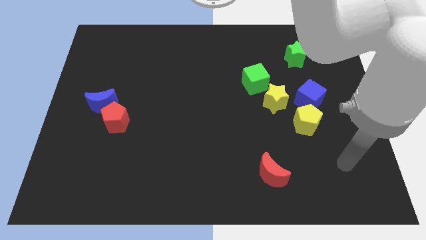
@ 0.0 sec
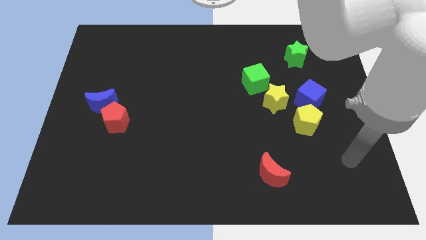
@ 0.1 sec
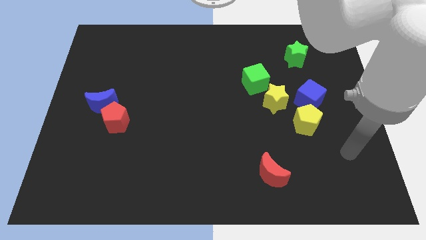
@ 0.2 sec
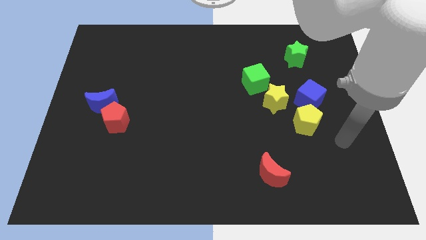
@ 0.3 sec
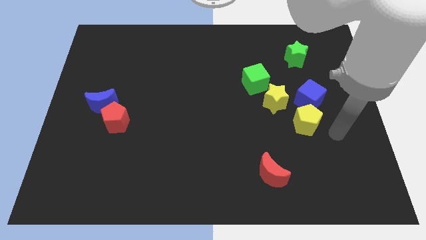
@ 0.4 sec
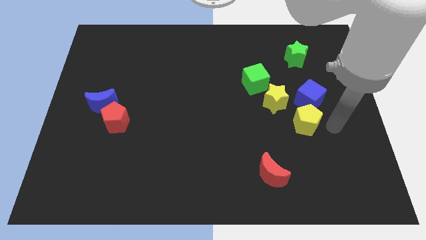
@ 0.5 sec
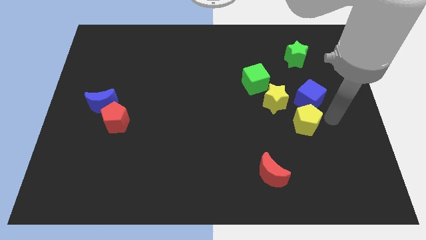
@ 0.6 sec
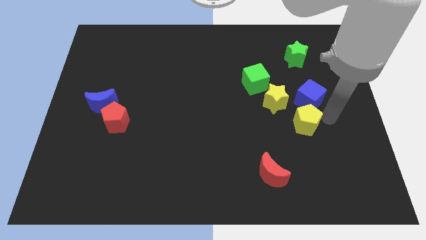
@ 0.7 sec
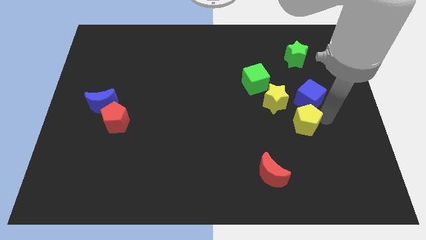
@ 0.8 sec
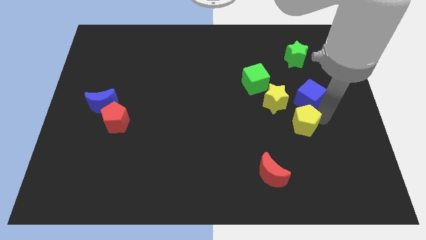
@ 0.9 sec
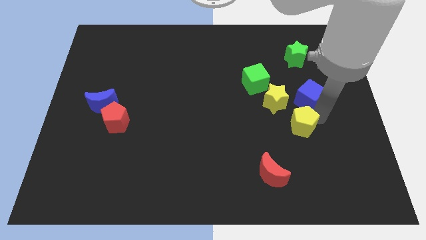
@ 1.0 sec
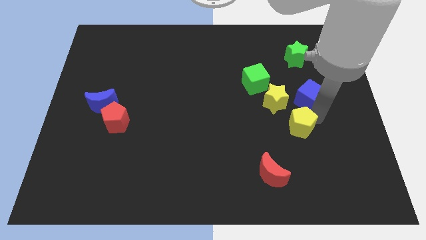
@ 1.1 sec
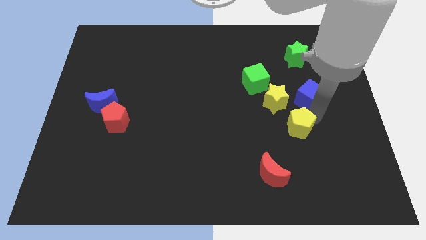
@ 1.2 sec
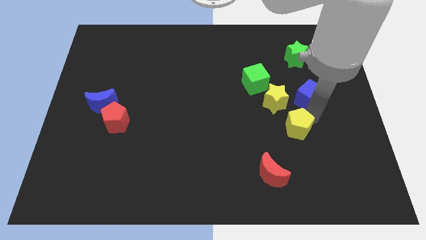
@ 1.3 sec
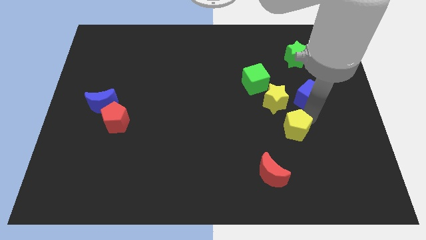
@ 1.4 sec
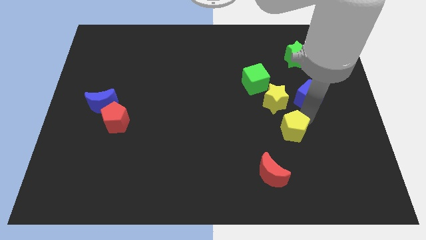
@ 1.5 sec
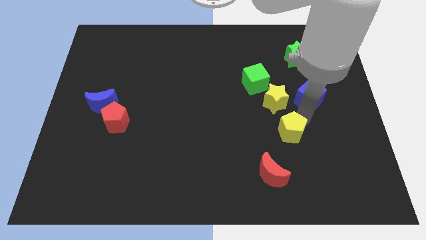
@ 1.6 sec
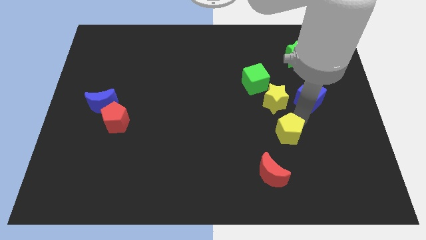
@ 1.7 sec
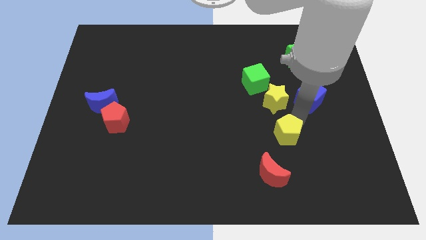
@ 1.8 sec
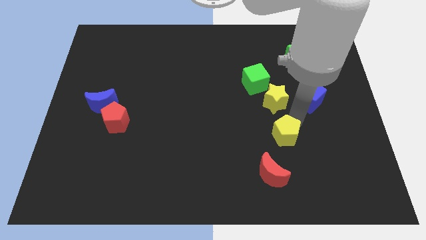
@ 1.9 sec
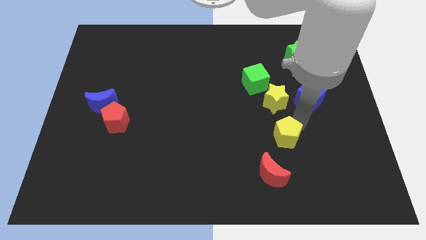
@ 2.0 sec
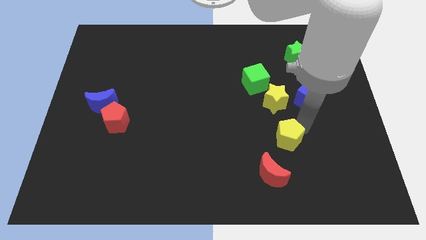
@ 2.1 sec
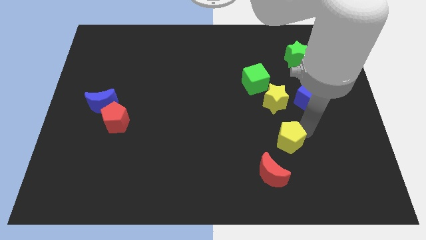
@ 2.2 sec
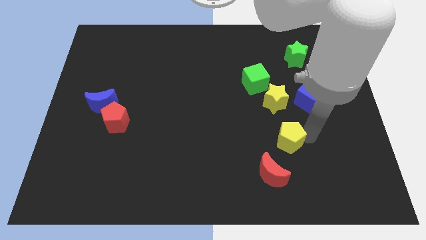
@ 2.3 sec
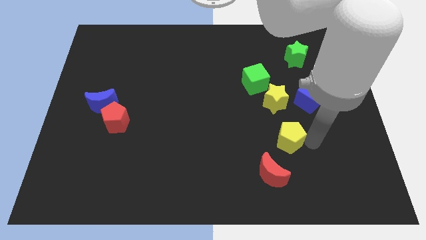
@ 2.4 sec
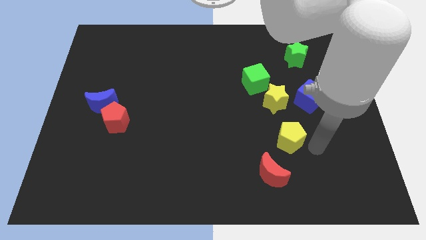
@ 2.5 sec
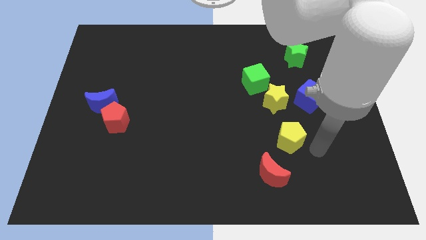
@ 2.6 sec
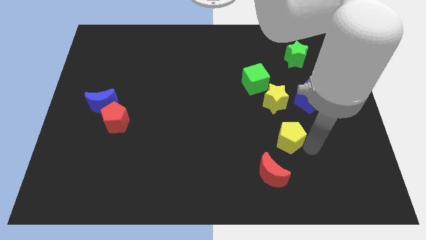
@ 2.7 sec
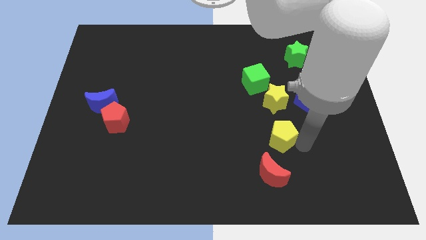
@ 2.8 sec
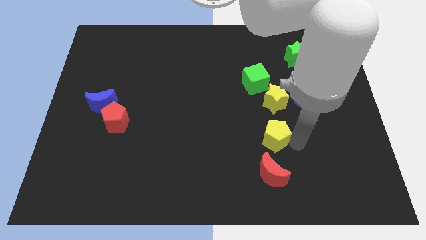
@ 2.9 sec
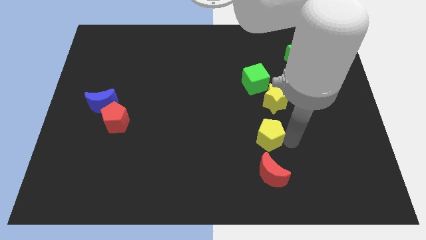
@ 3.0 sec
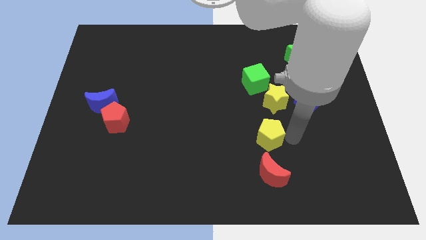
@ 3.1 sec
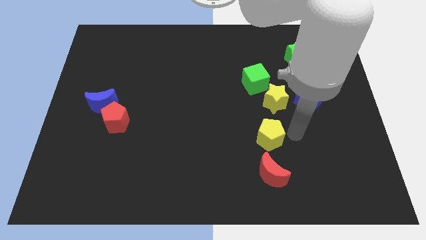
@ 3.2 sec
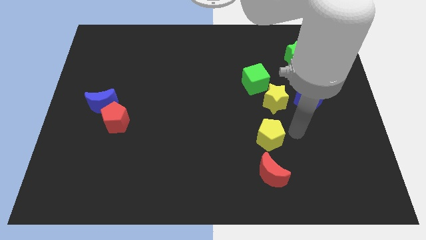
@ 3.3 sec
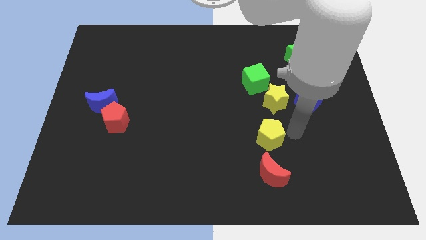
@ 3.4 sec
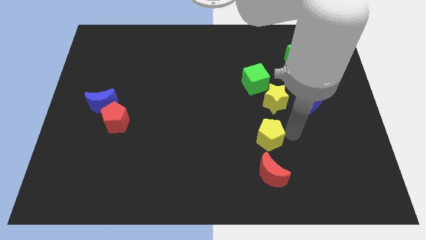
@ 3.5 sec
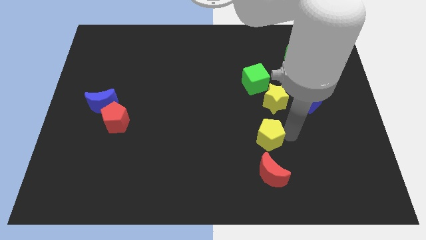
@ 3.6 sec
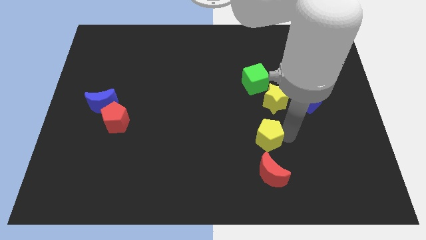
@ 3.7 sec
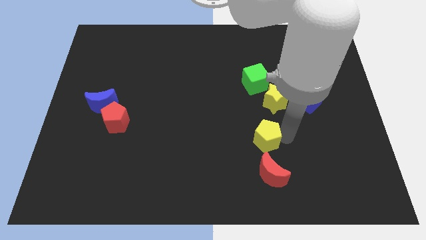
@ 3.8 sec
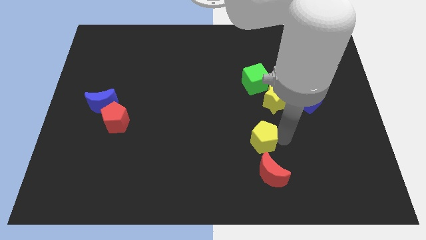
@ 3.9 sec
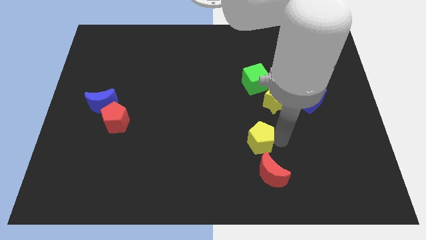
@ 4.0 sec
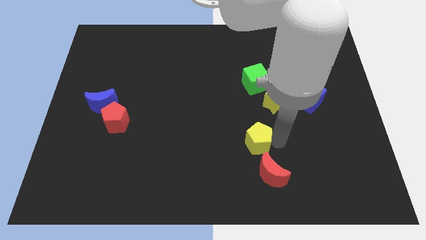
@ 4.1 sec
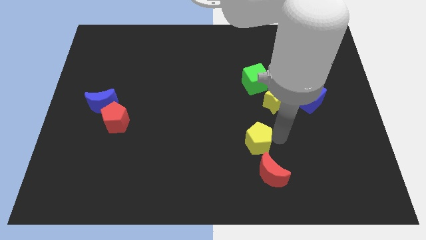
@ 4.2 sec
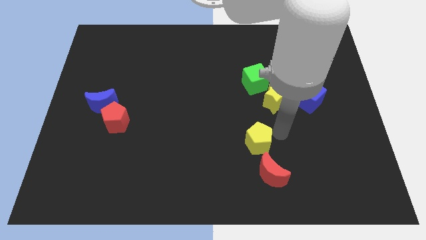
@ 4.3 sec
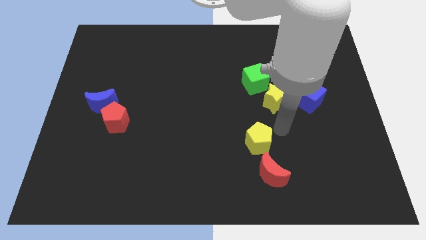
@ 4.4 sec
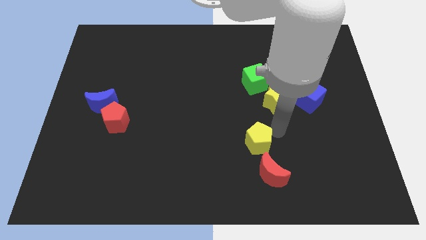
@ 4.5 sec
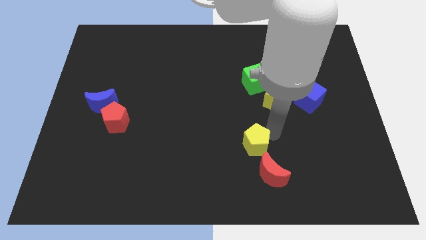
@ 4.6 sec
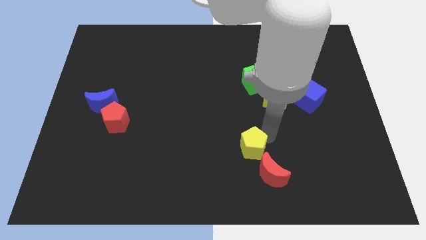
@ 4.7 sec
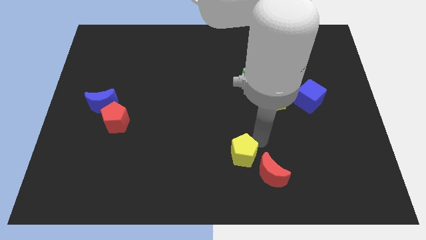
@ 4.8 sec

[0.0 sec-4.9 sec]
move the yellow pentagon to the left of the red moon

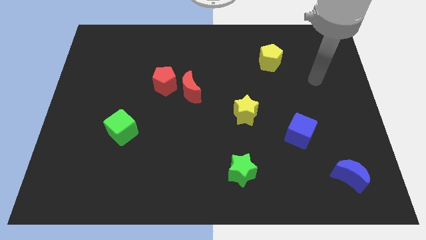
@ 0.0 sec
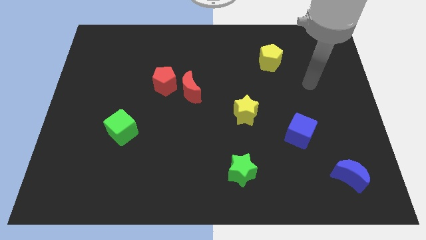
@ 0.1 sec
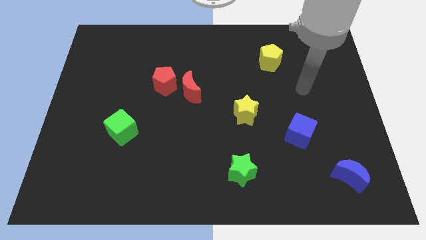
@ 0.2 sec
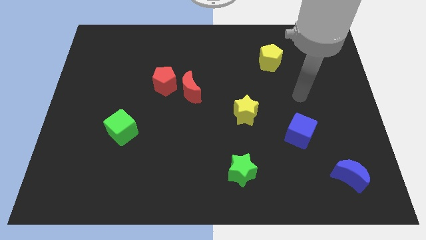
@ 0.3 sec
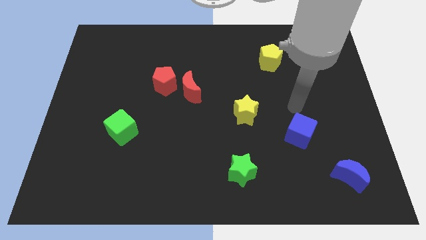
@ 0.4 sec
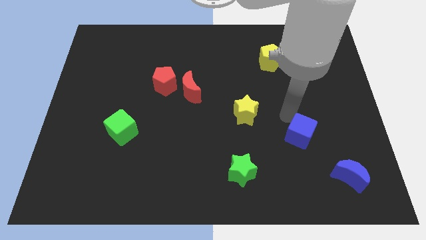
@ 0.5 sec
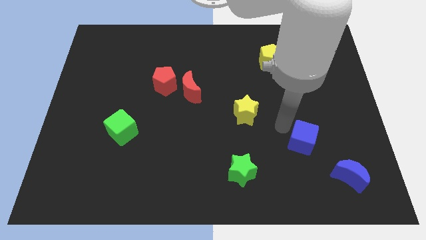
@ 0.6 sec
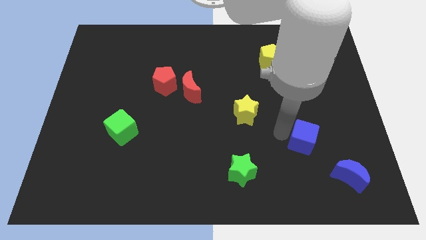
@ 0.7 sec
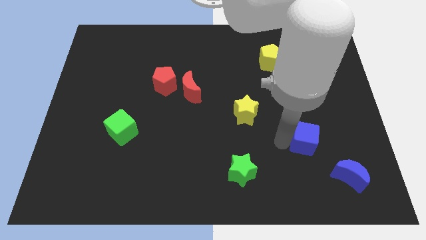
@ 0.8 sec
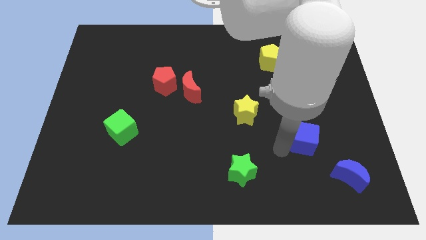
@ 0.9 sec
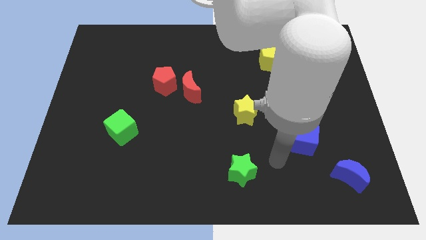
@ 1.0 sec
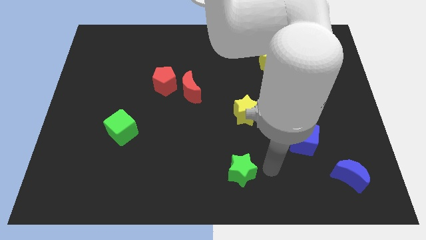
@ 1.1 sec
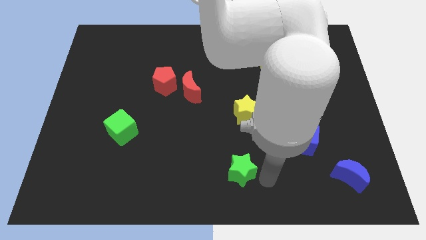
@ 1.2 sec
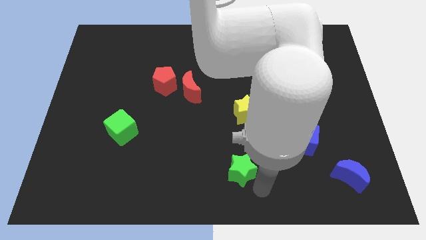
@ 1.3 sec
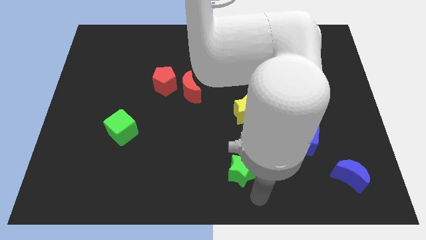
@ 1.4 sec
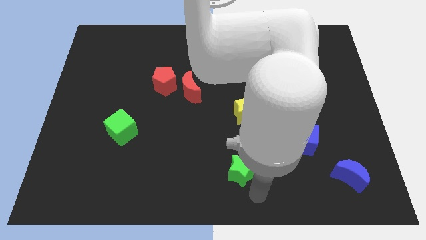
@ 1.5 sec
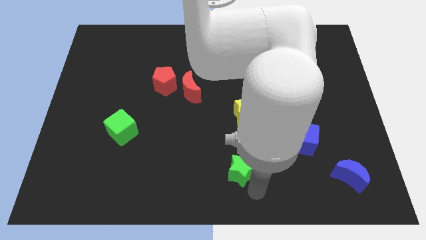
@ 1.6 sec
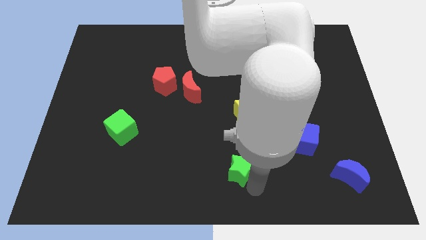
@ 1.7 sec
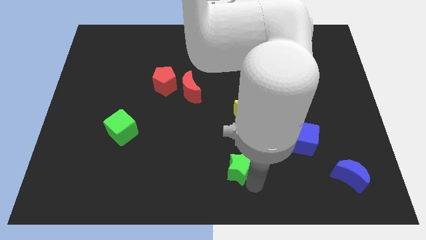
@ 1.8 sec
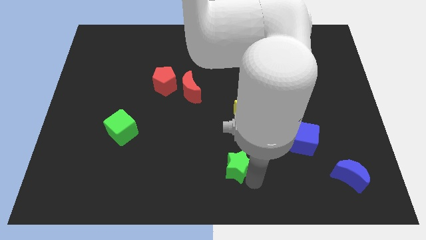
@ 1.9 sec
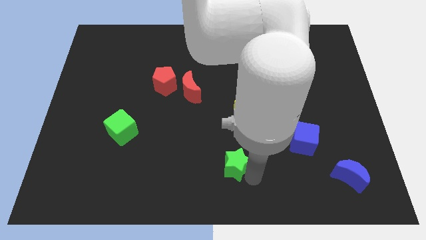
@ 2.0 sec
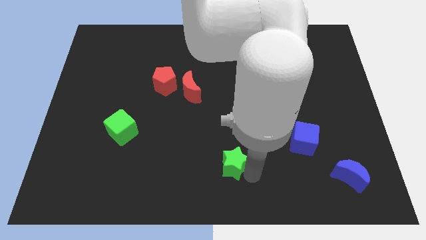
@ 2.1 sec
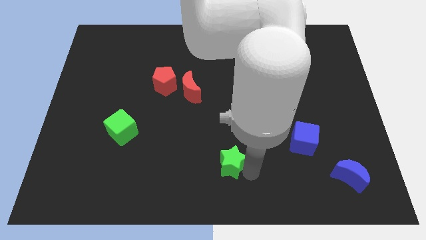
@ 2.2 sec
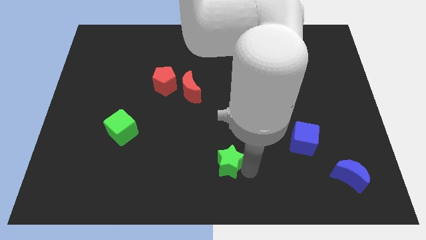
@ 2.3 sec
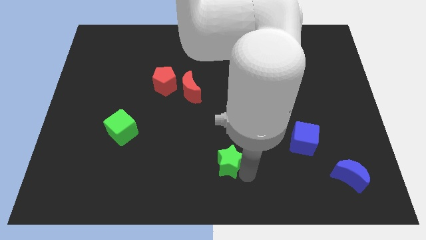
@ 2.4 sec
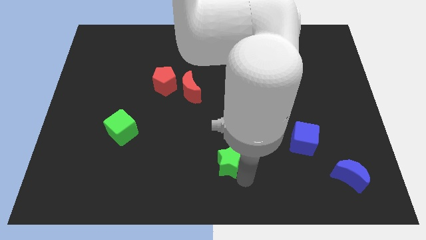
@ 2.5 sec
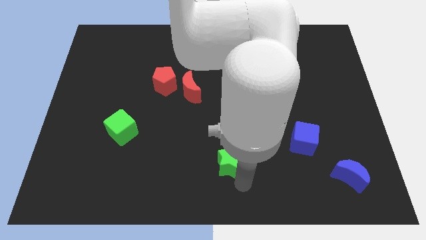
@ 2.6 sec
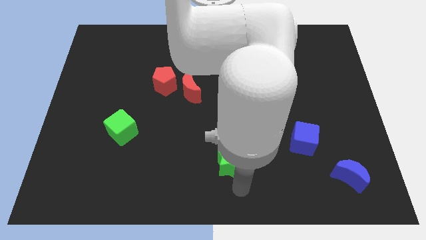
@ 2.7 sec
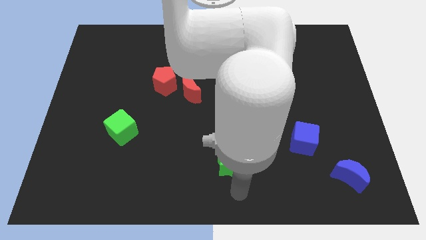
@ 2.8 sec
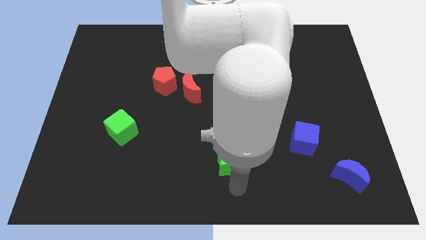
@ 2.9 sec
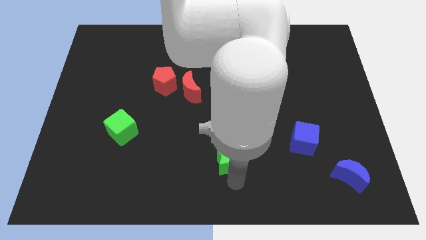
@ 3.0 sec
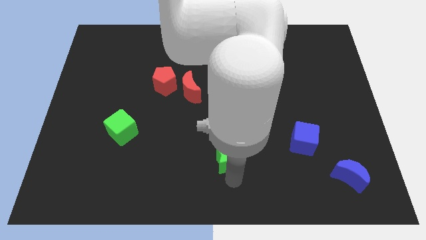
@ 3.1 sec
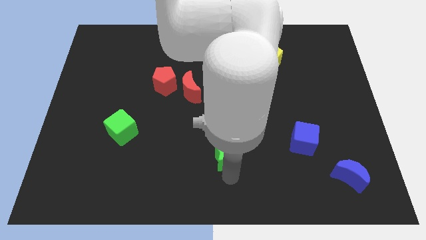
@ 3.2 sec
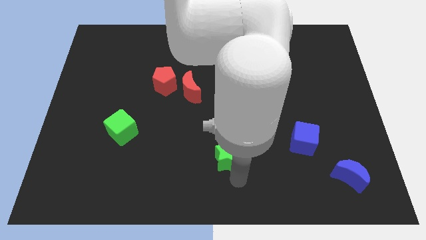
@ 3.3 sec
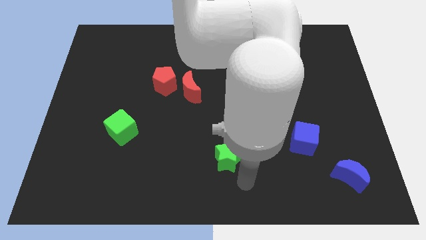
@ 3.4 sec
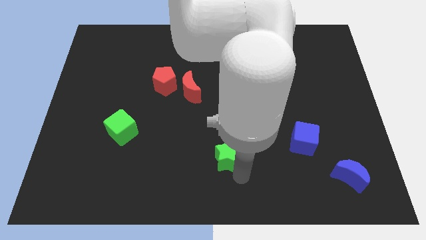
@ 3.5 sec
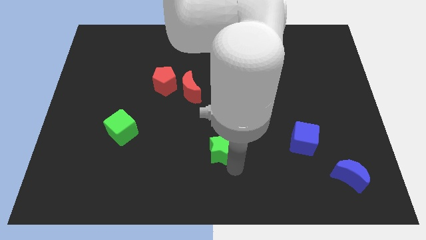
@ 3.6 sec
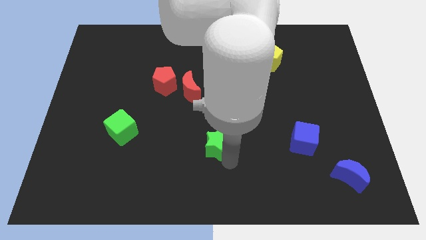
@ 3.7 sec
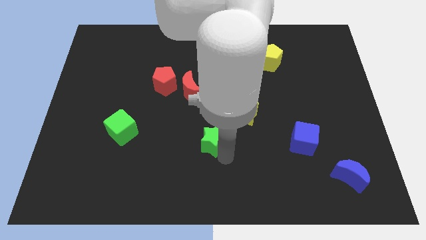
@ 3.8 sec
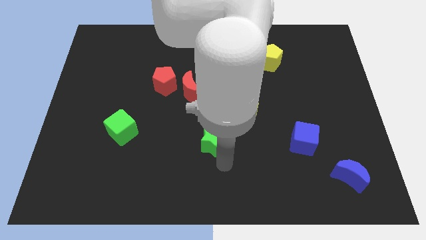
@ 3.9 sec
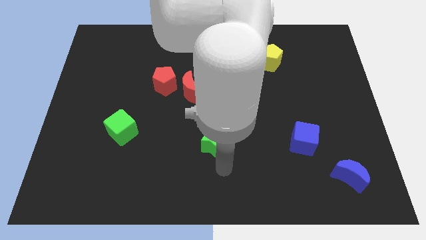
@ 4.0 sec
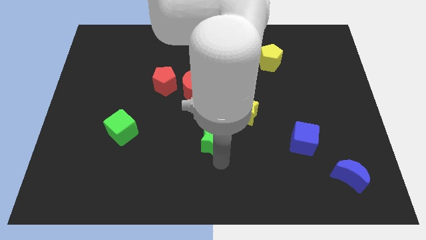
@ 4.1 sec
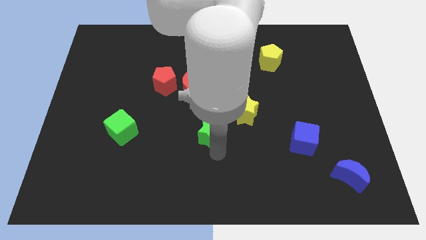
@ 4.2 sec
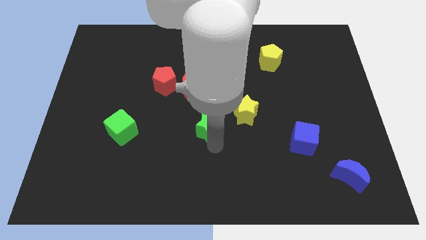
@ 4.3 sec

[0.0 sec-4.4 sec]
put the green star to the left of the yellow star
